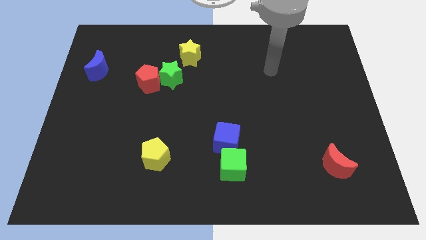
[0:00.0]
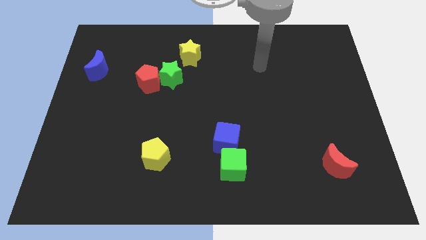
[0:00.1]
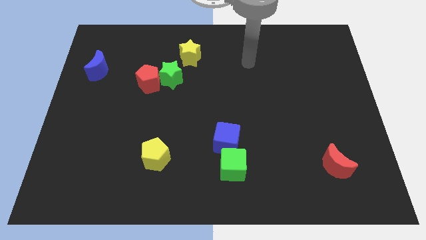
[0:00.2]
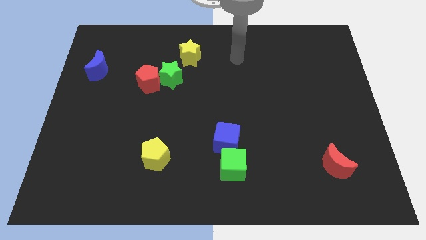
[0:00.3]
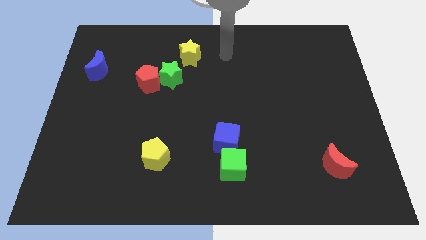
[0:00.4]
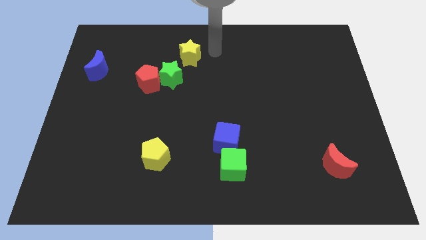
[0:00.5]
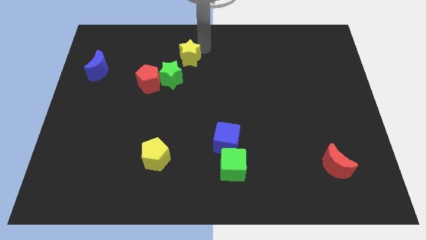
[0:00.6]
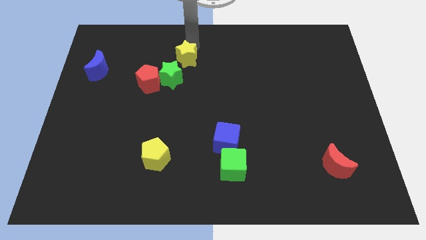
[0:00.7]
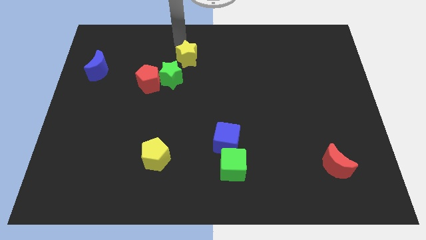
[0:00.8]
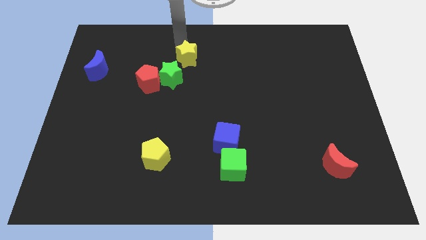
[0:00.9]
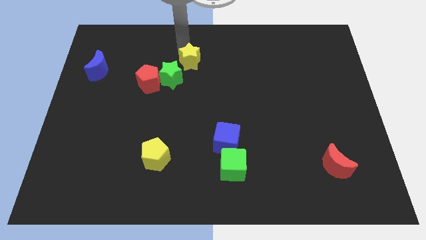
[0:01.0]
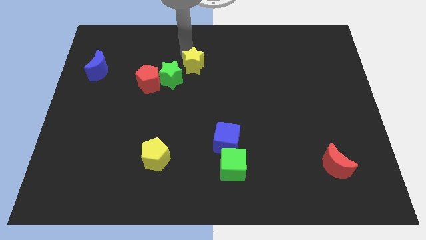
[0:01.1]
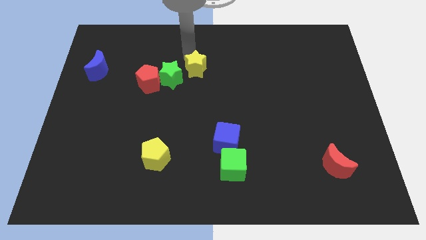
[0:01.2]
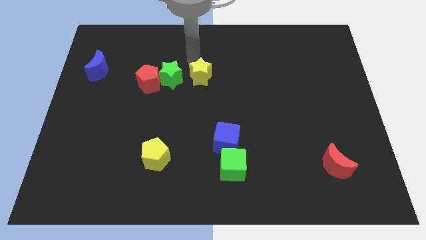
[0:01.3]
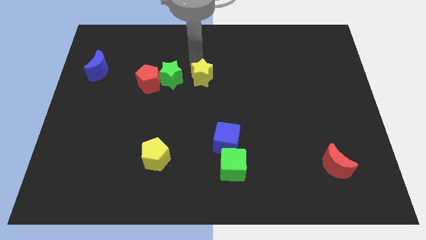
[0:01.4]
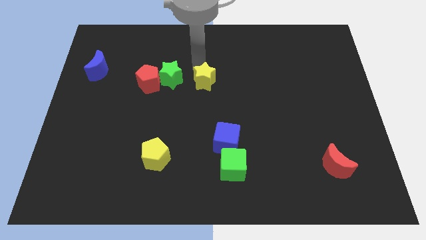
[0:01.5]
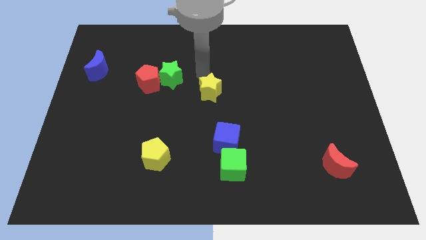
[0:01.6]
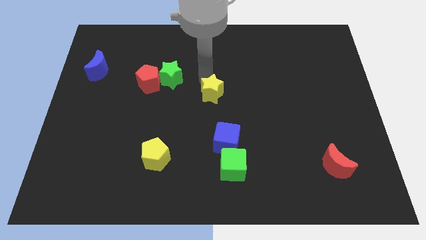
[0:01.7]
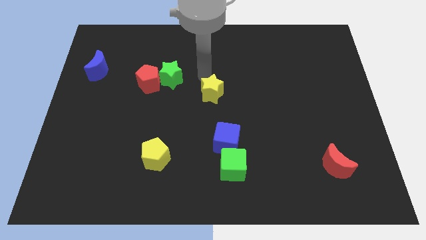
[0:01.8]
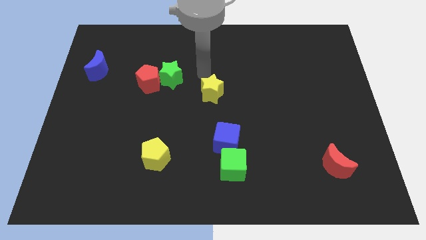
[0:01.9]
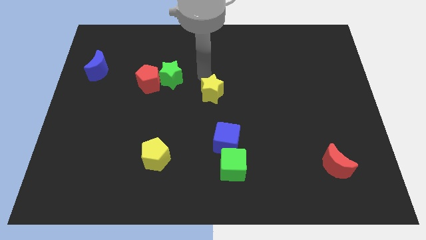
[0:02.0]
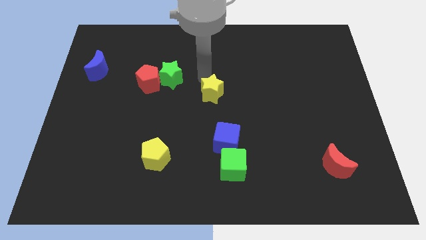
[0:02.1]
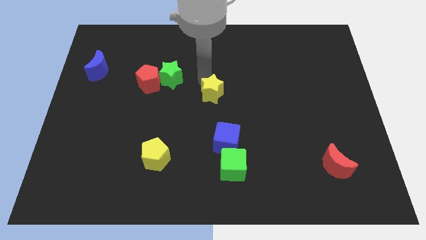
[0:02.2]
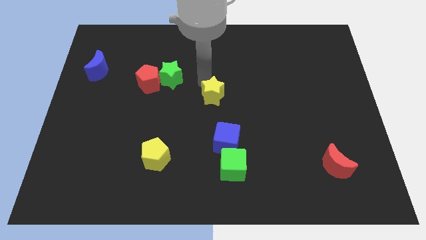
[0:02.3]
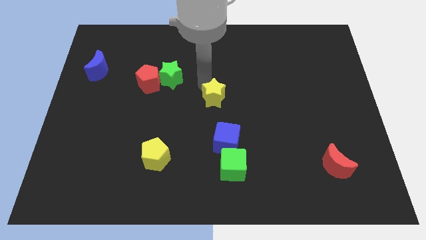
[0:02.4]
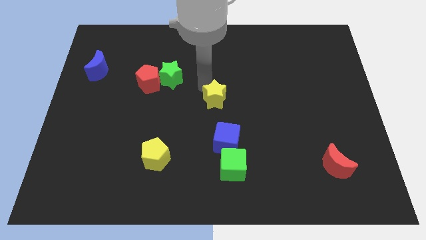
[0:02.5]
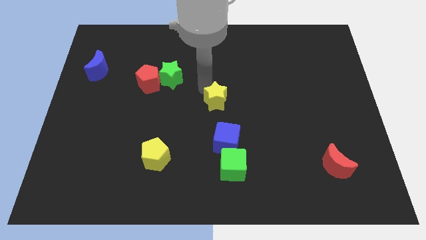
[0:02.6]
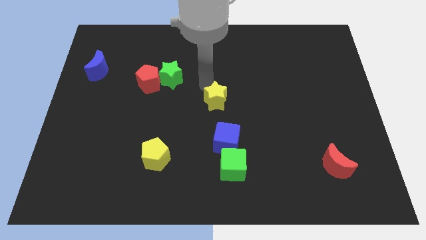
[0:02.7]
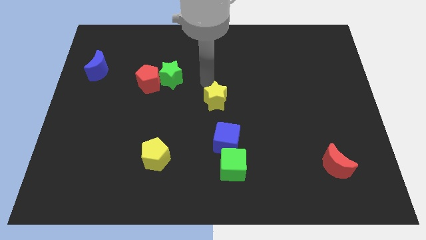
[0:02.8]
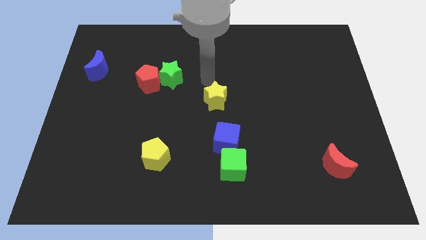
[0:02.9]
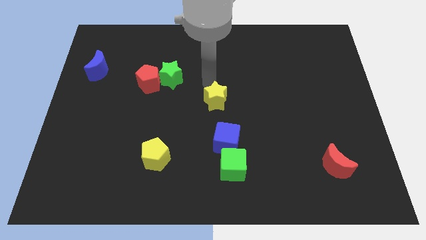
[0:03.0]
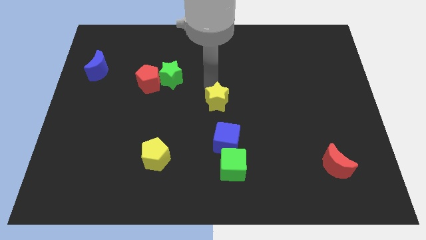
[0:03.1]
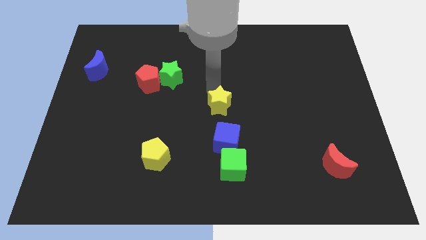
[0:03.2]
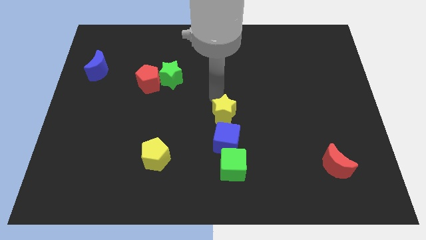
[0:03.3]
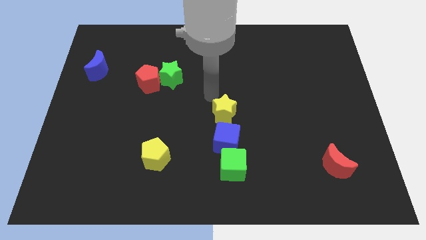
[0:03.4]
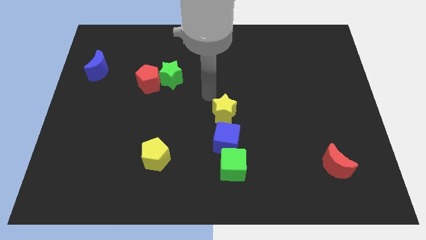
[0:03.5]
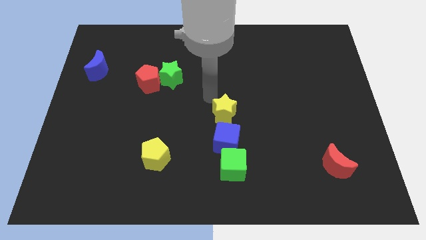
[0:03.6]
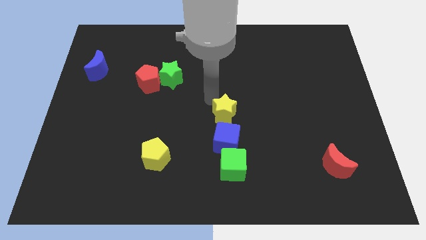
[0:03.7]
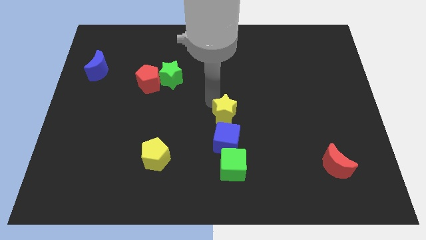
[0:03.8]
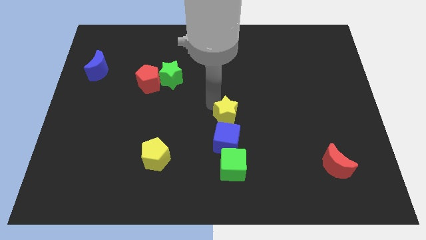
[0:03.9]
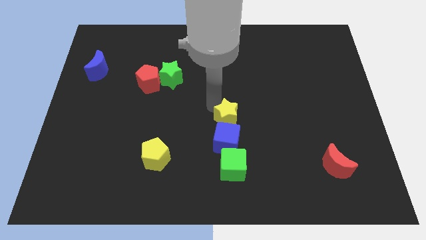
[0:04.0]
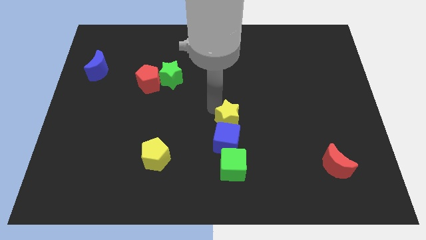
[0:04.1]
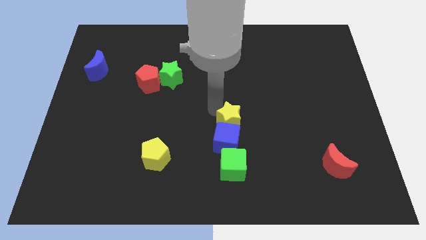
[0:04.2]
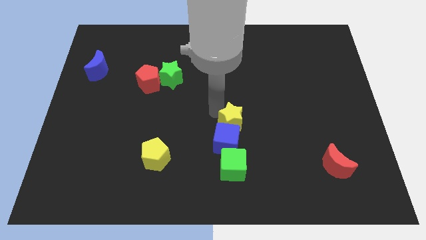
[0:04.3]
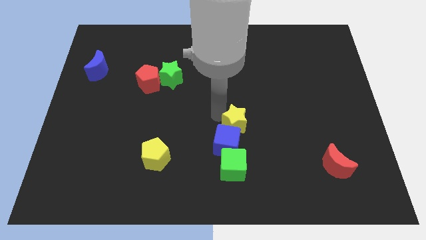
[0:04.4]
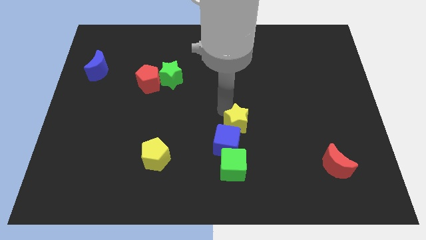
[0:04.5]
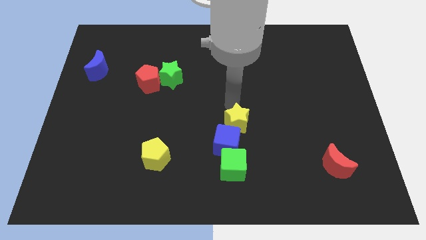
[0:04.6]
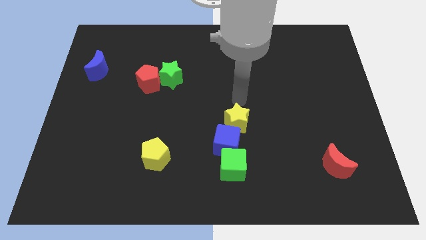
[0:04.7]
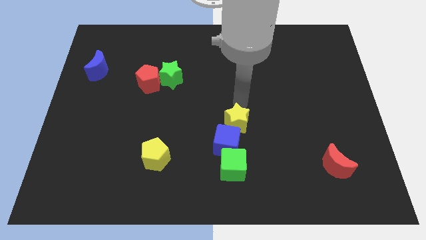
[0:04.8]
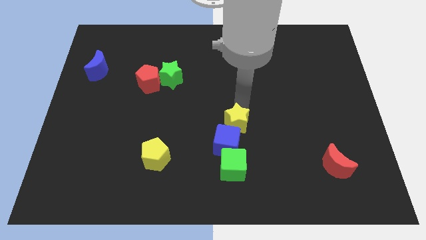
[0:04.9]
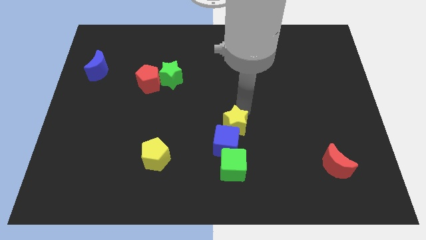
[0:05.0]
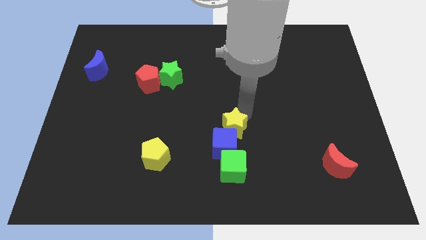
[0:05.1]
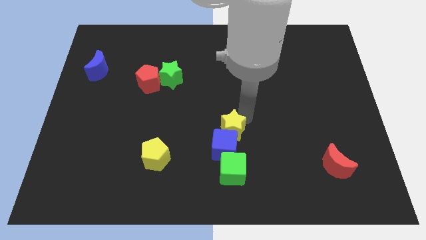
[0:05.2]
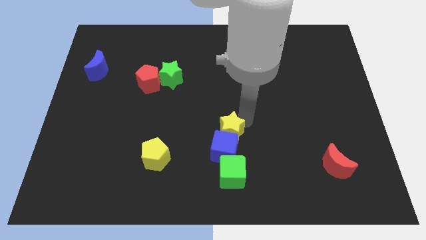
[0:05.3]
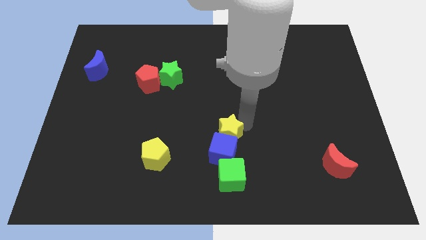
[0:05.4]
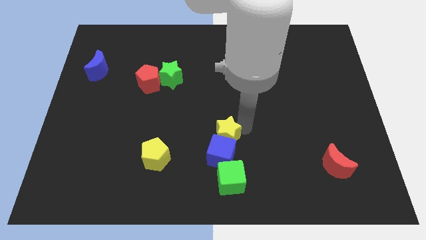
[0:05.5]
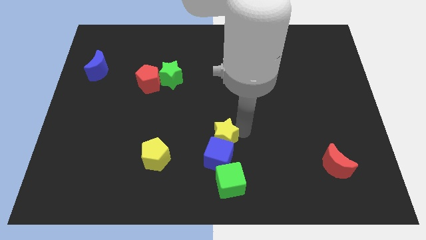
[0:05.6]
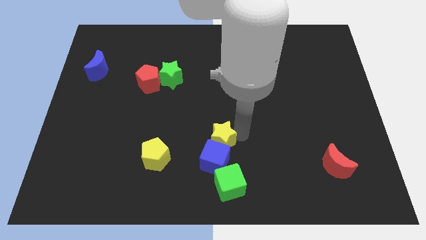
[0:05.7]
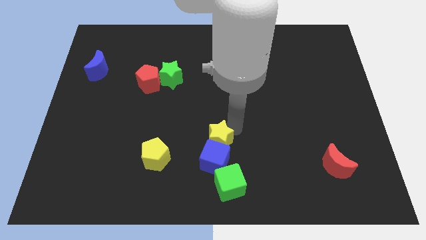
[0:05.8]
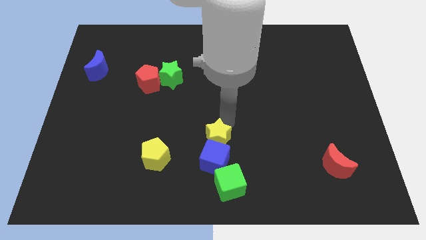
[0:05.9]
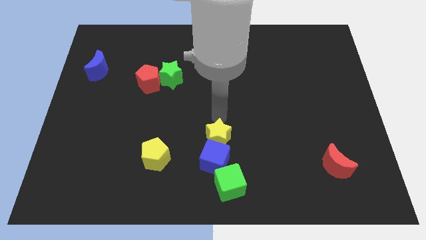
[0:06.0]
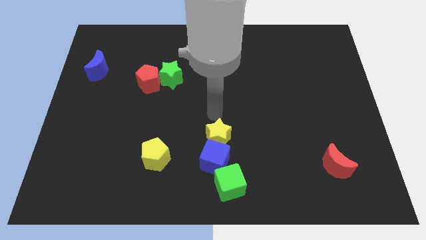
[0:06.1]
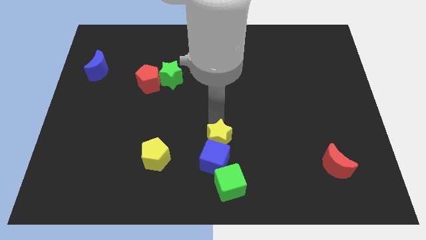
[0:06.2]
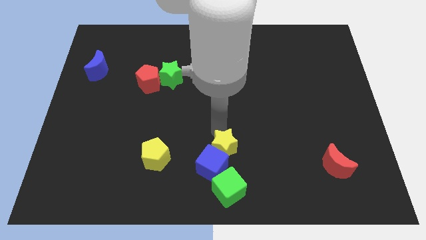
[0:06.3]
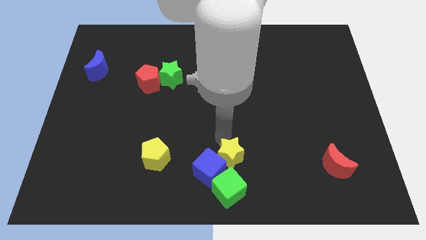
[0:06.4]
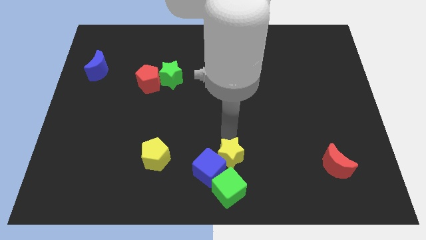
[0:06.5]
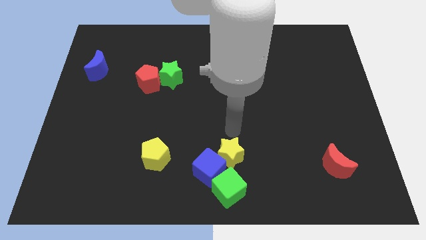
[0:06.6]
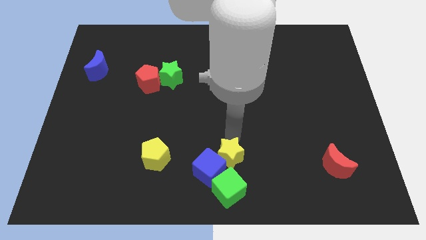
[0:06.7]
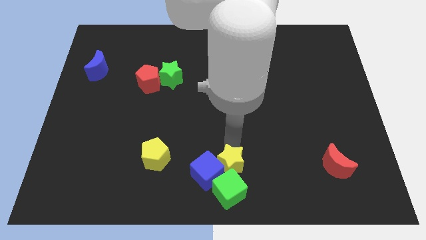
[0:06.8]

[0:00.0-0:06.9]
slide the yellow star close to the green cube

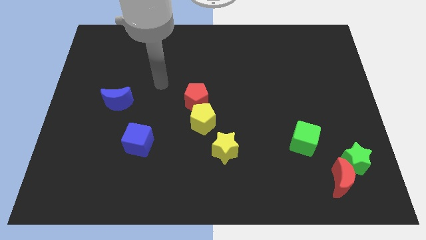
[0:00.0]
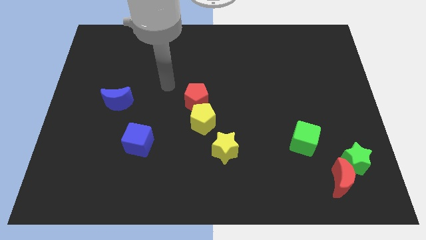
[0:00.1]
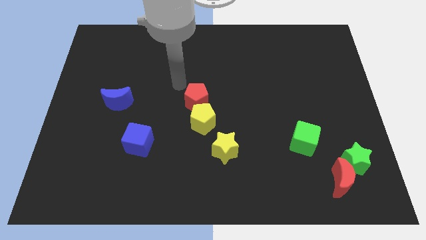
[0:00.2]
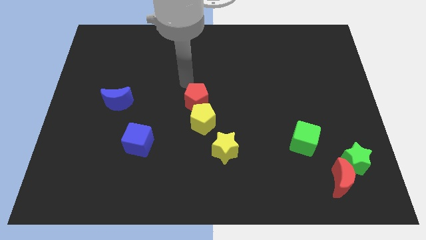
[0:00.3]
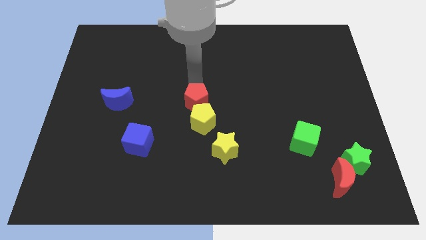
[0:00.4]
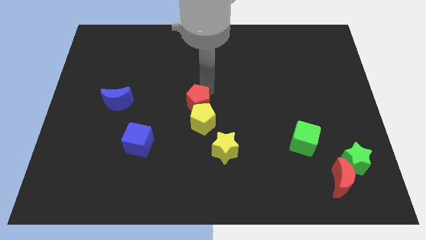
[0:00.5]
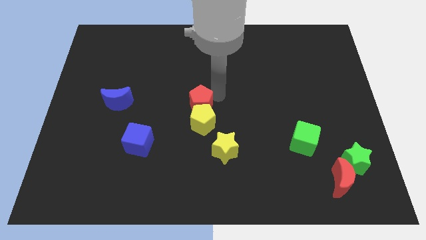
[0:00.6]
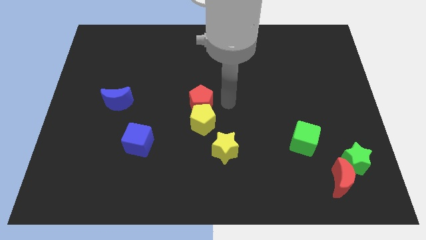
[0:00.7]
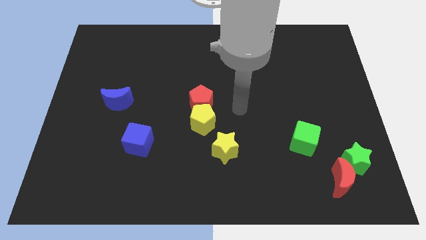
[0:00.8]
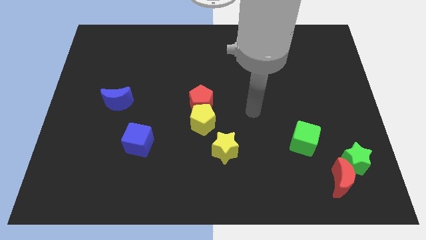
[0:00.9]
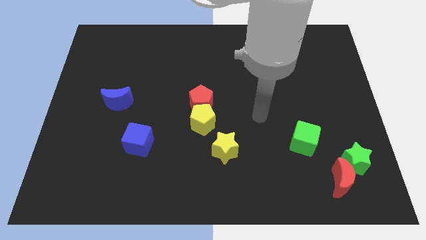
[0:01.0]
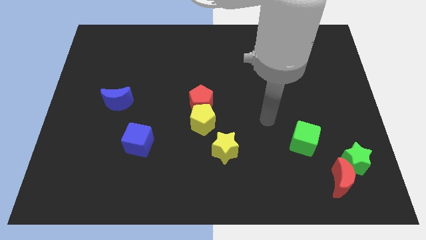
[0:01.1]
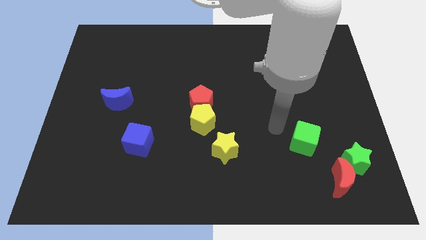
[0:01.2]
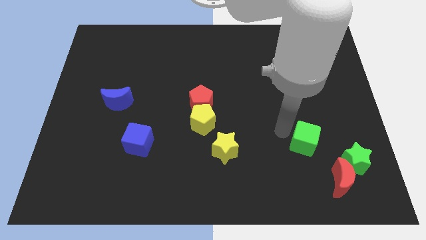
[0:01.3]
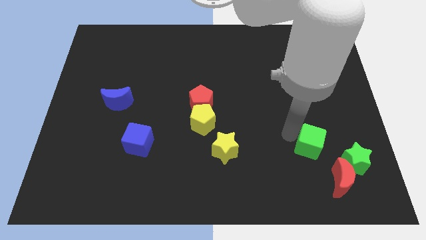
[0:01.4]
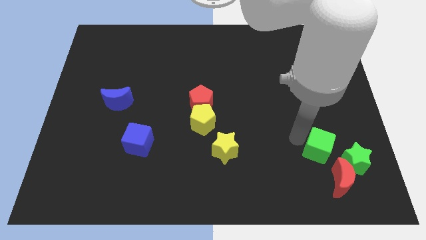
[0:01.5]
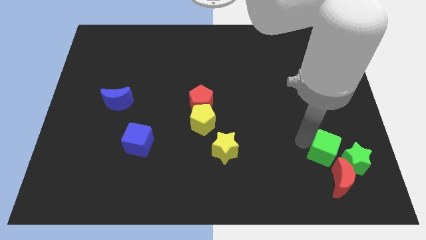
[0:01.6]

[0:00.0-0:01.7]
push the green cube close to the green star
